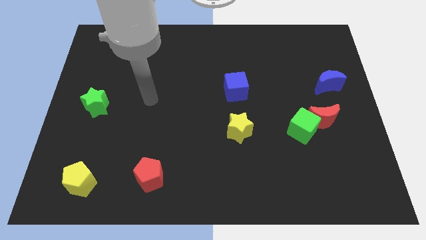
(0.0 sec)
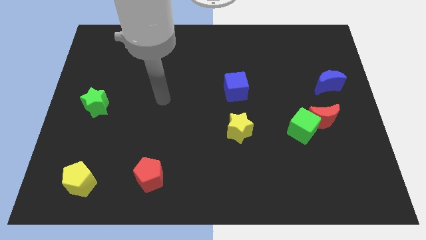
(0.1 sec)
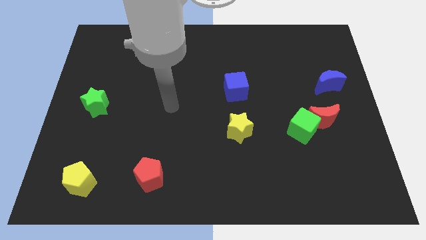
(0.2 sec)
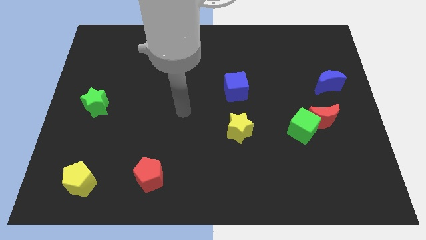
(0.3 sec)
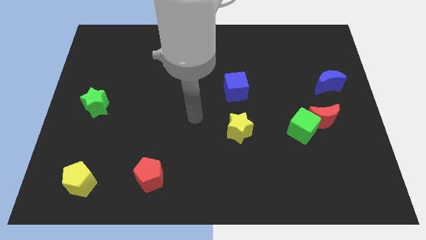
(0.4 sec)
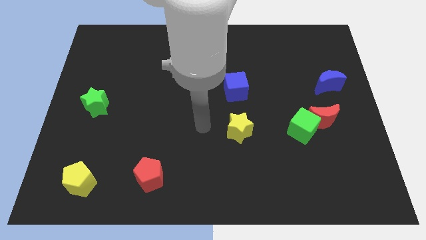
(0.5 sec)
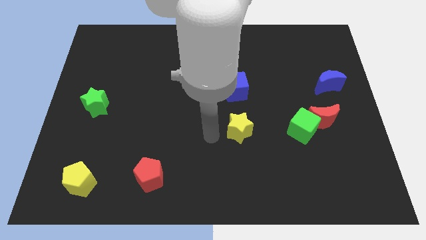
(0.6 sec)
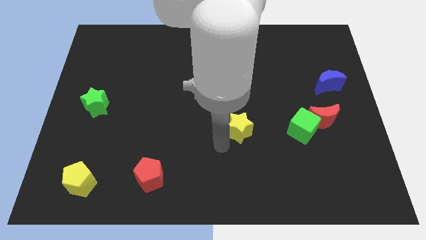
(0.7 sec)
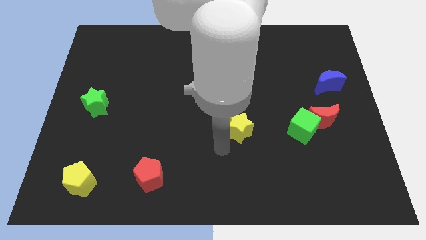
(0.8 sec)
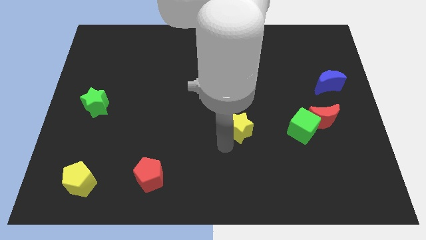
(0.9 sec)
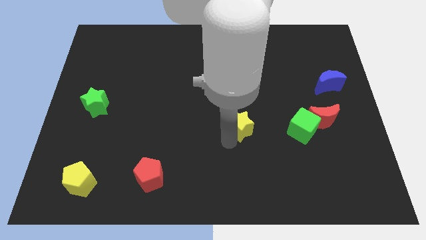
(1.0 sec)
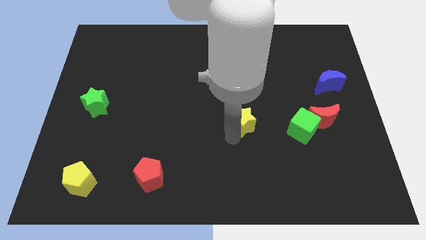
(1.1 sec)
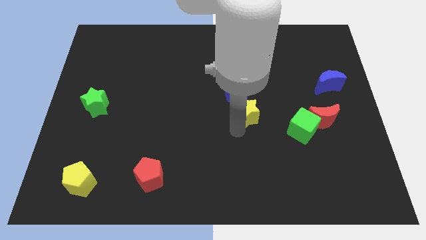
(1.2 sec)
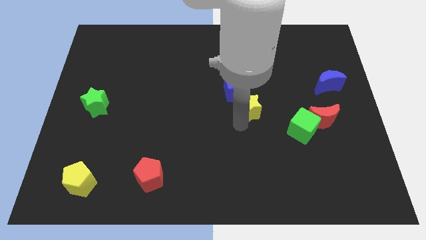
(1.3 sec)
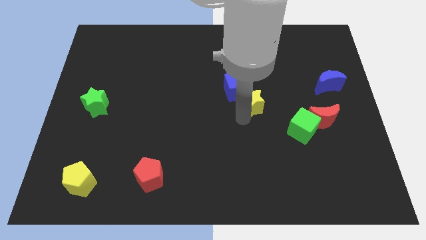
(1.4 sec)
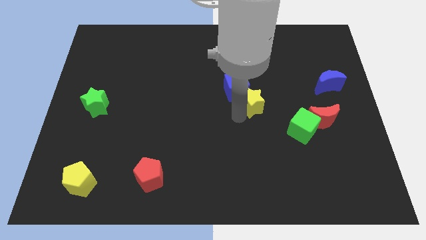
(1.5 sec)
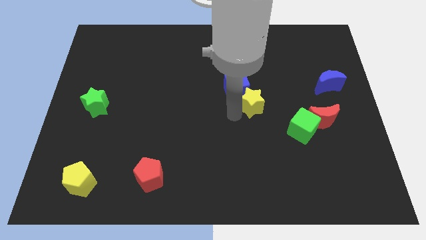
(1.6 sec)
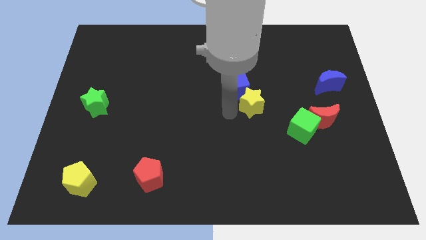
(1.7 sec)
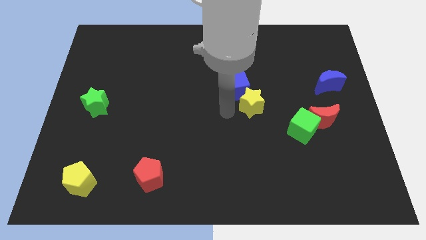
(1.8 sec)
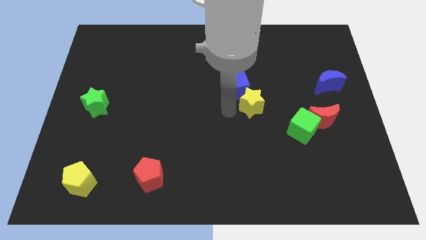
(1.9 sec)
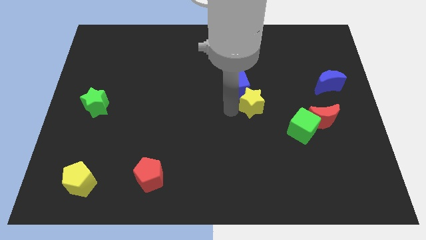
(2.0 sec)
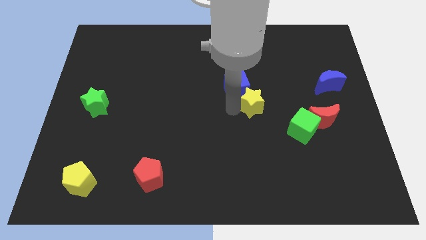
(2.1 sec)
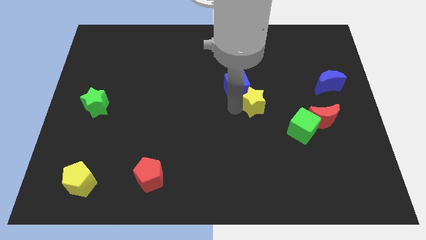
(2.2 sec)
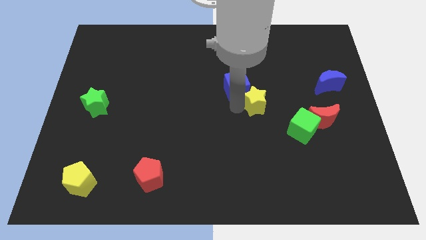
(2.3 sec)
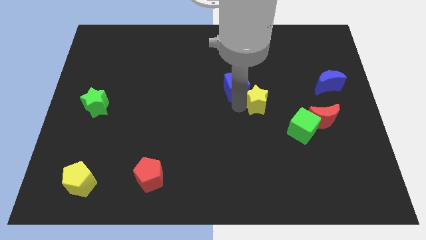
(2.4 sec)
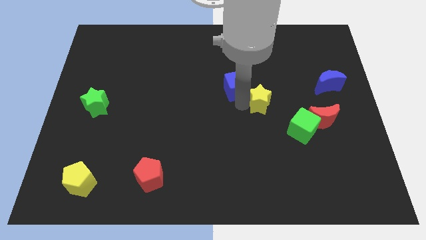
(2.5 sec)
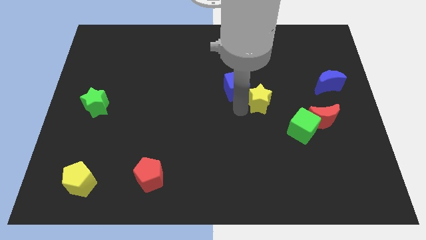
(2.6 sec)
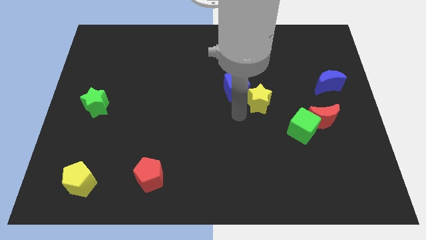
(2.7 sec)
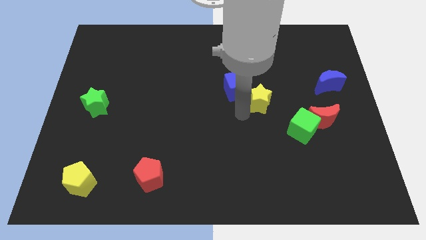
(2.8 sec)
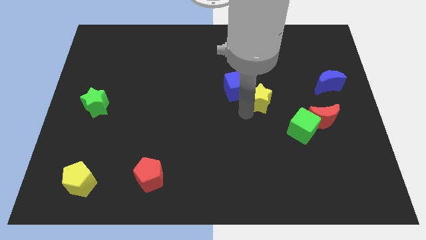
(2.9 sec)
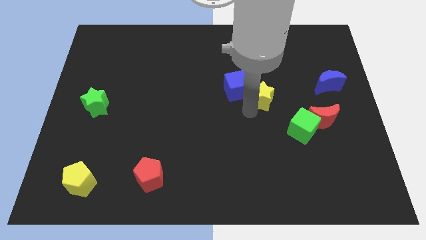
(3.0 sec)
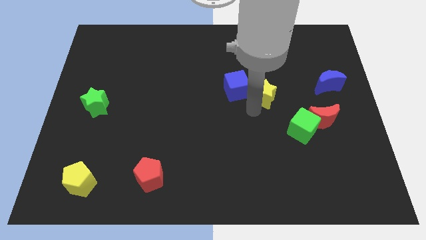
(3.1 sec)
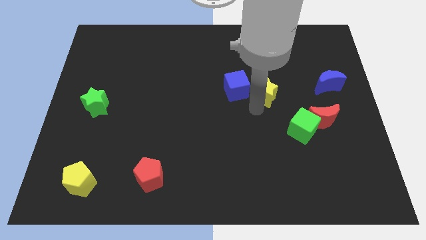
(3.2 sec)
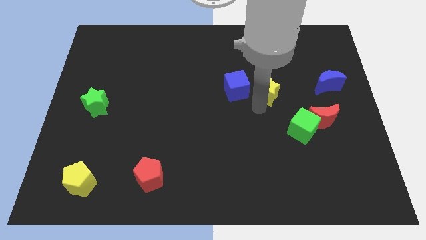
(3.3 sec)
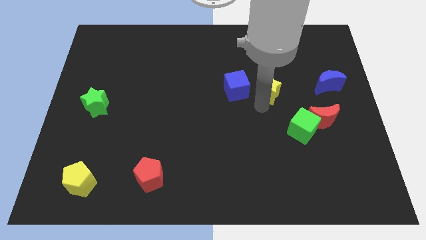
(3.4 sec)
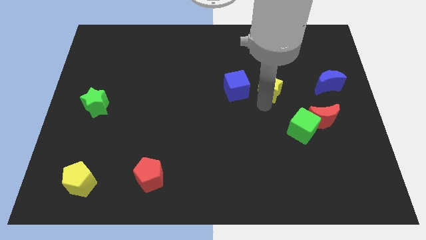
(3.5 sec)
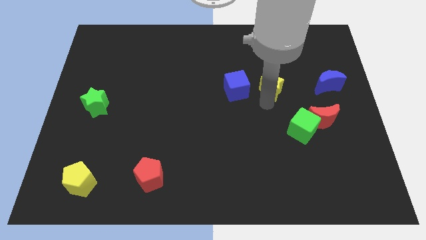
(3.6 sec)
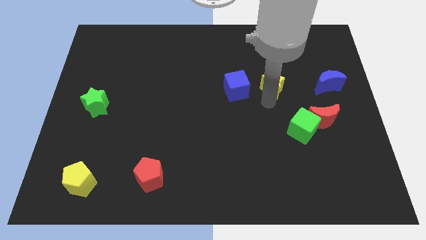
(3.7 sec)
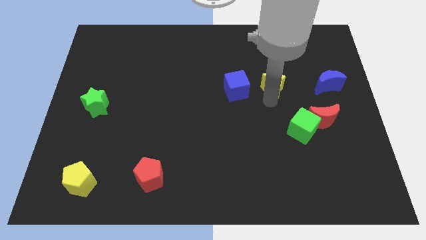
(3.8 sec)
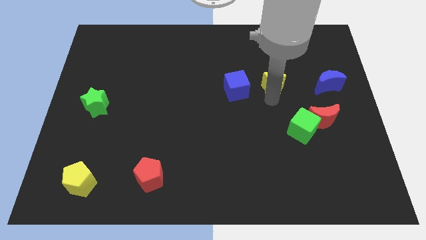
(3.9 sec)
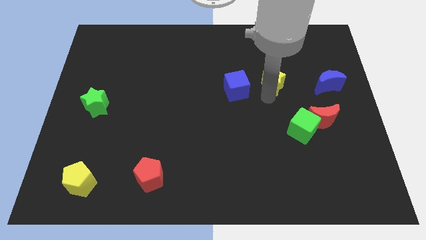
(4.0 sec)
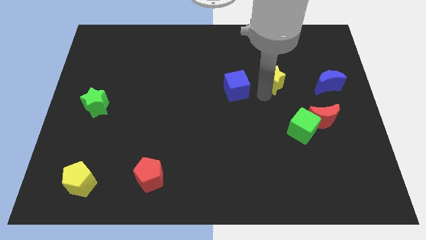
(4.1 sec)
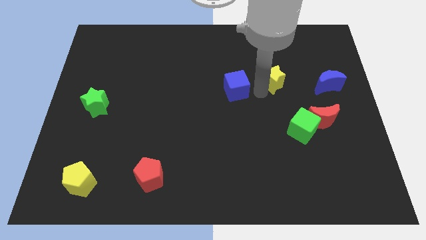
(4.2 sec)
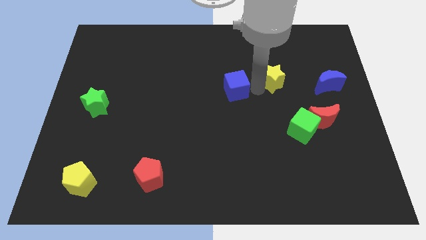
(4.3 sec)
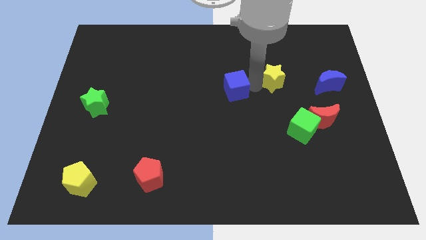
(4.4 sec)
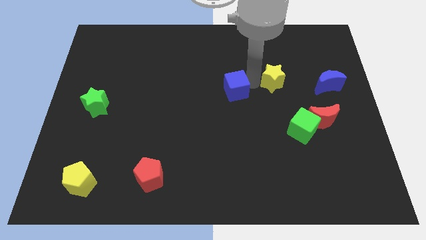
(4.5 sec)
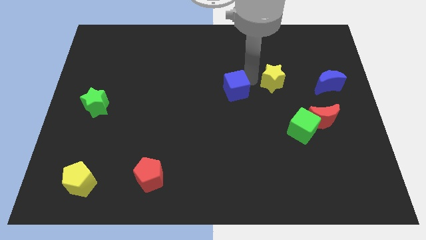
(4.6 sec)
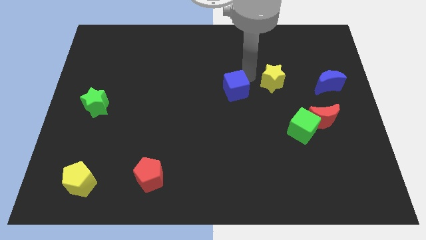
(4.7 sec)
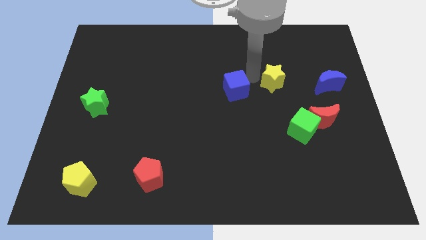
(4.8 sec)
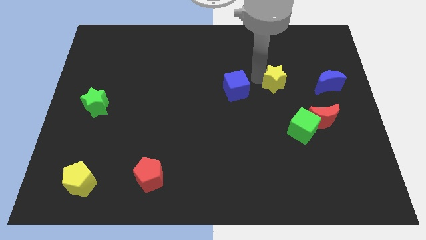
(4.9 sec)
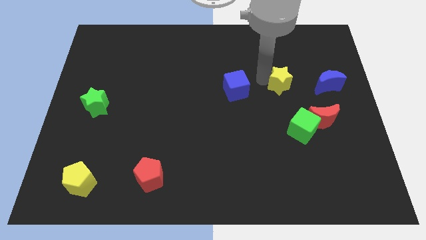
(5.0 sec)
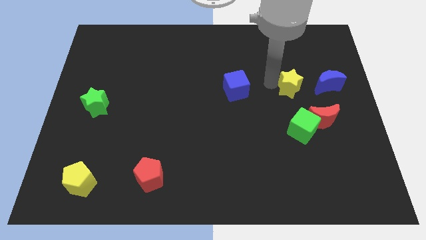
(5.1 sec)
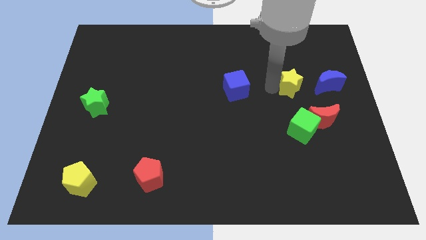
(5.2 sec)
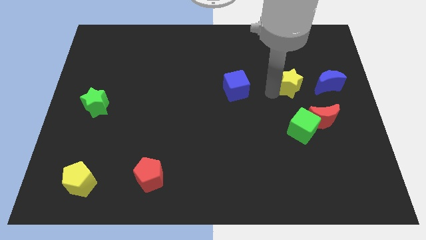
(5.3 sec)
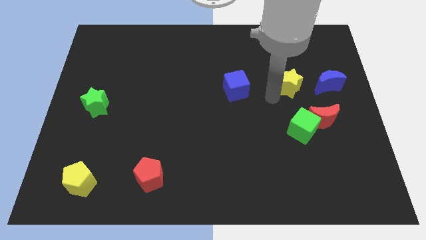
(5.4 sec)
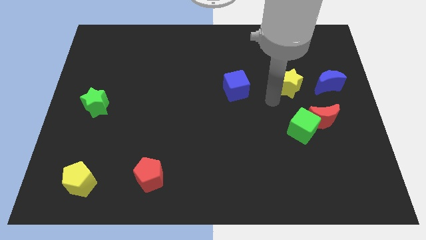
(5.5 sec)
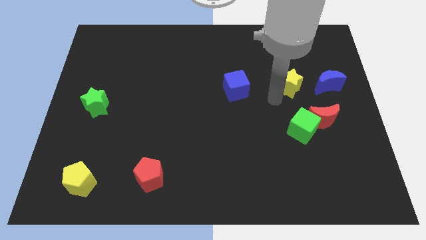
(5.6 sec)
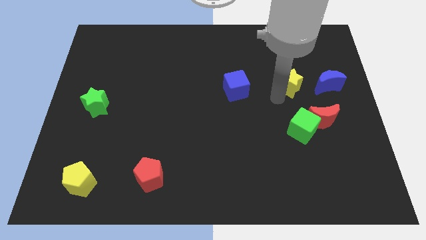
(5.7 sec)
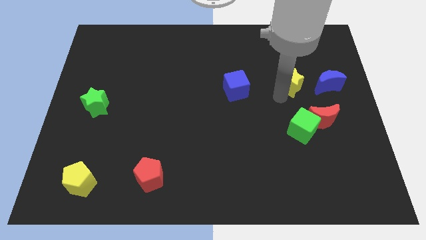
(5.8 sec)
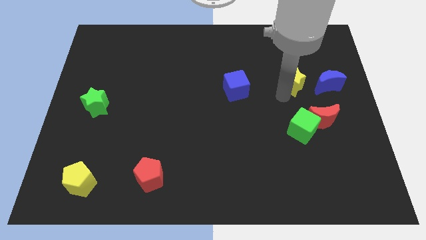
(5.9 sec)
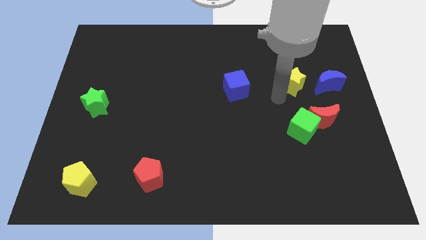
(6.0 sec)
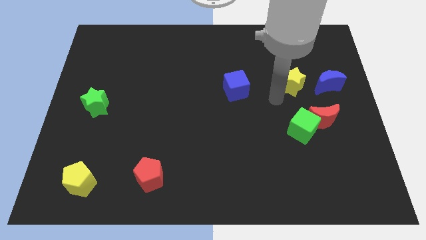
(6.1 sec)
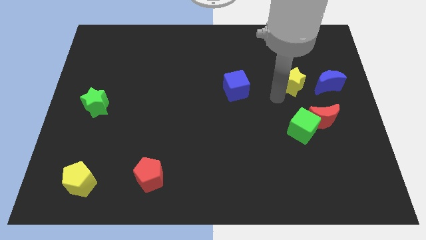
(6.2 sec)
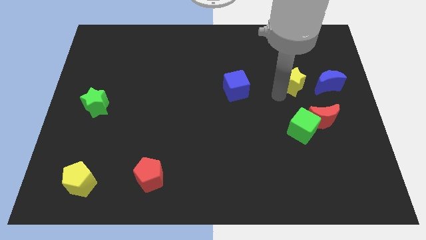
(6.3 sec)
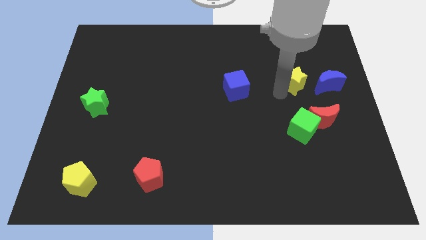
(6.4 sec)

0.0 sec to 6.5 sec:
move the yellow star up and to the right

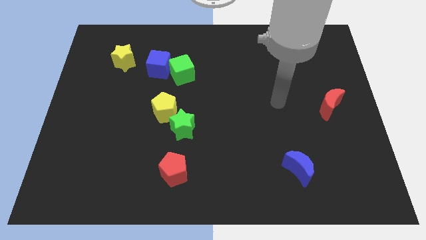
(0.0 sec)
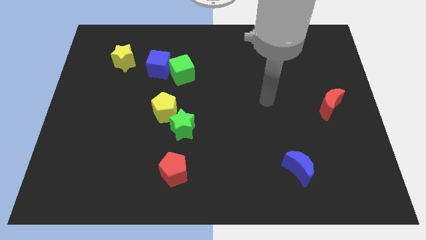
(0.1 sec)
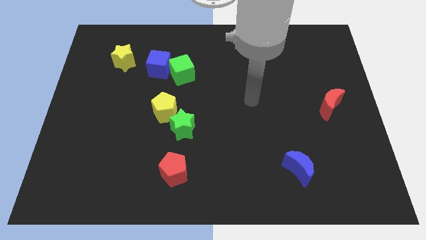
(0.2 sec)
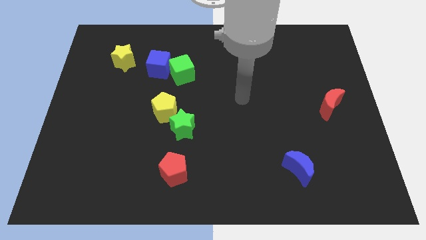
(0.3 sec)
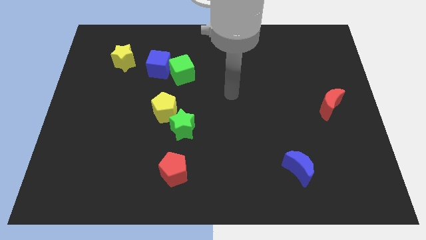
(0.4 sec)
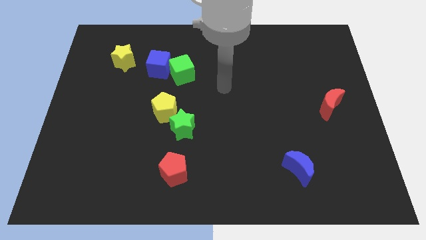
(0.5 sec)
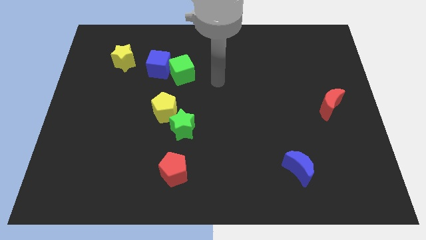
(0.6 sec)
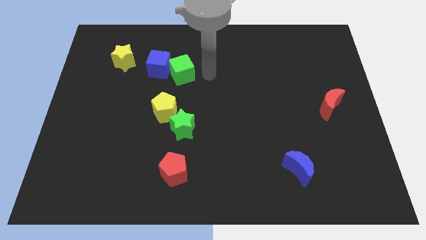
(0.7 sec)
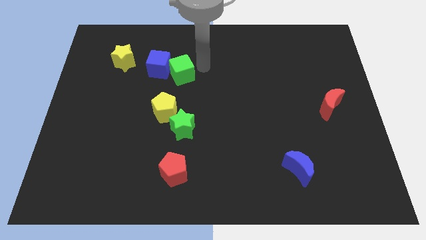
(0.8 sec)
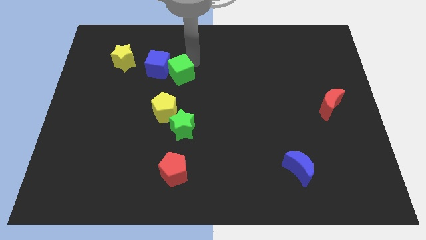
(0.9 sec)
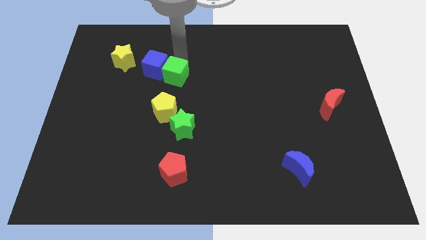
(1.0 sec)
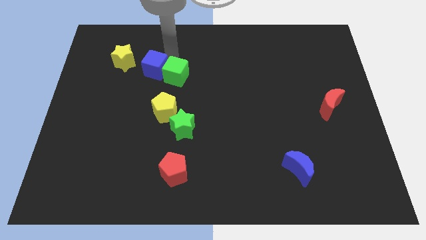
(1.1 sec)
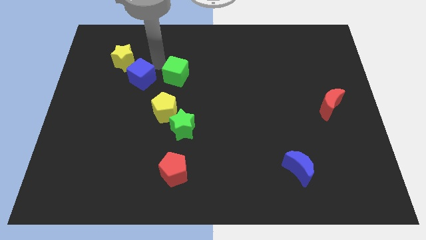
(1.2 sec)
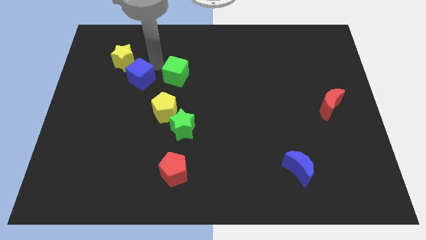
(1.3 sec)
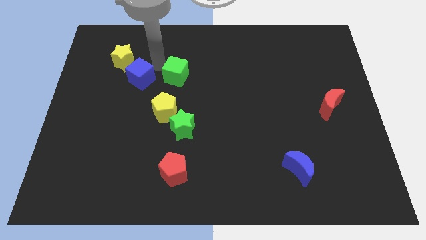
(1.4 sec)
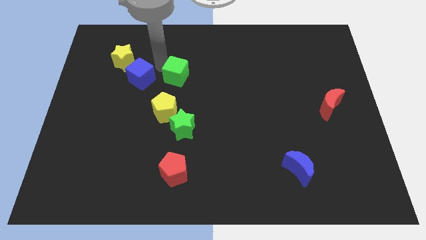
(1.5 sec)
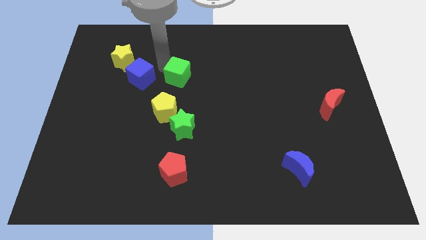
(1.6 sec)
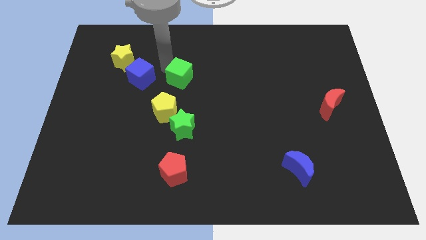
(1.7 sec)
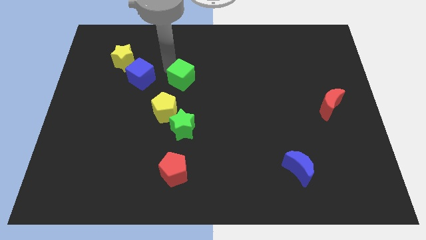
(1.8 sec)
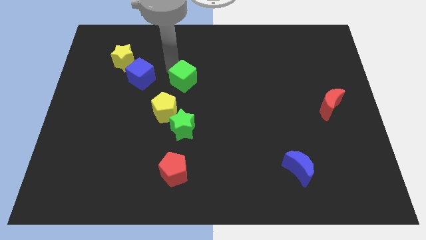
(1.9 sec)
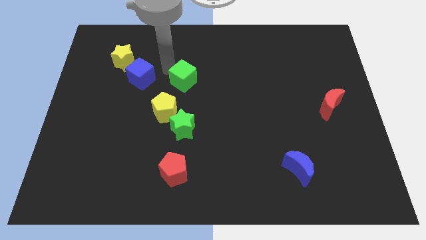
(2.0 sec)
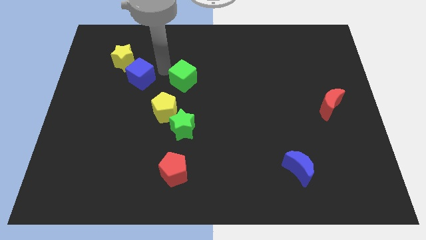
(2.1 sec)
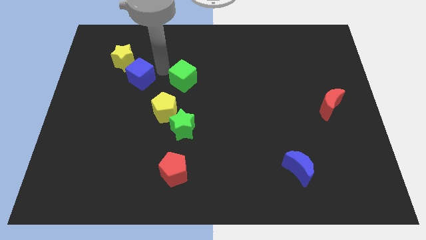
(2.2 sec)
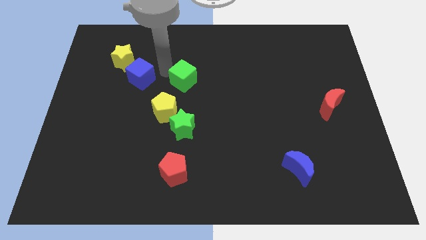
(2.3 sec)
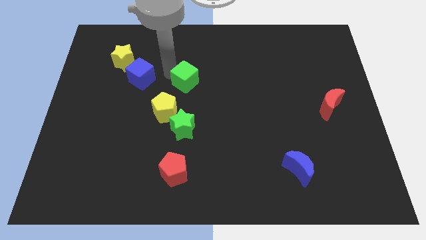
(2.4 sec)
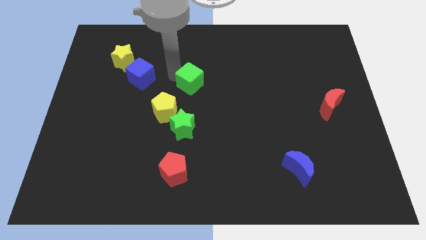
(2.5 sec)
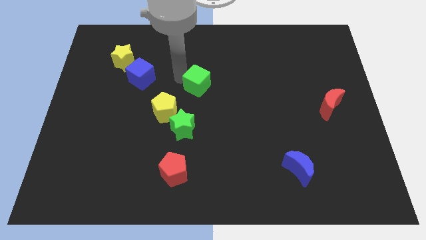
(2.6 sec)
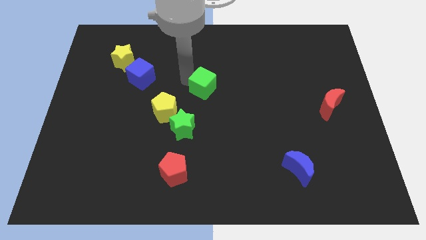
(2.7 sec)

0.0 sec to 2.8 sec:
slightly push the green cube down and to the right diagonally
